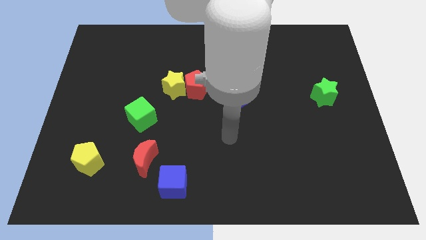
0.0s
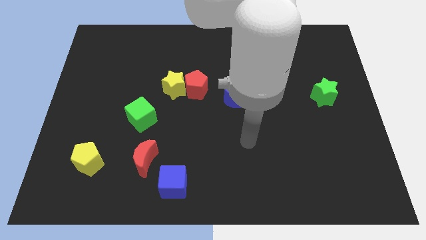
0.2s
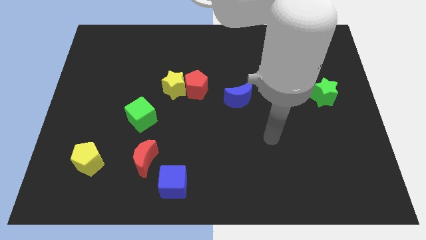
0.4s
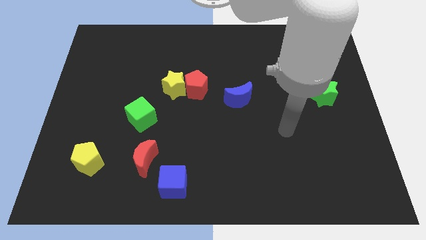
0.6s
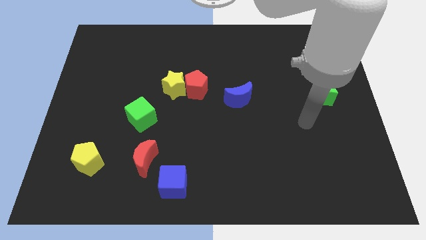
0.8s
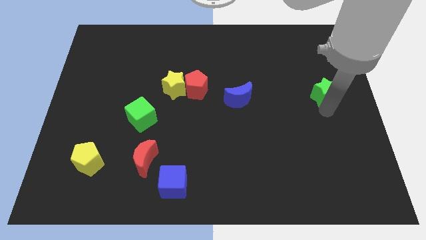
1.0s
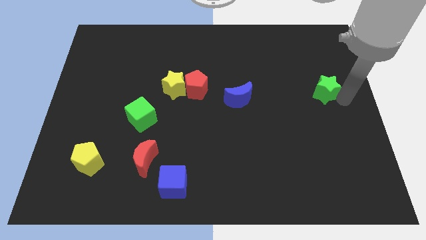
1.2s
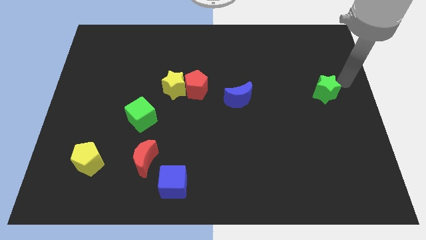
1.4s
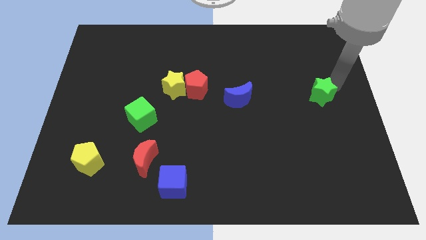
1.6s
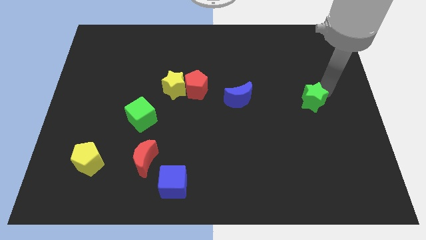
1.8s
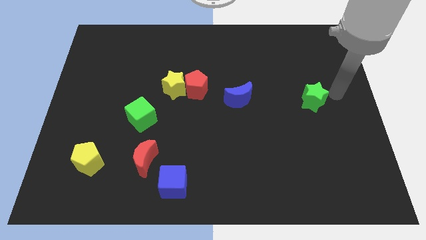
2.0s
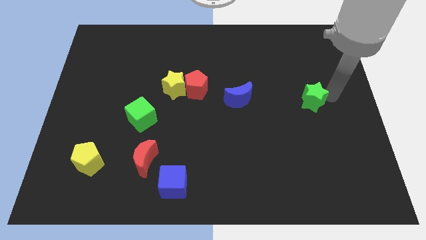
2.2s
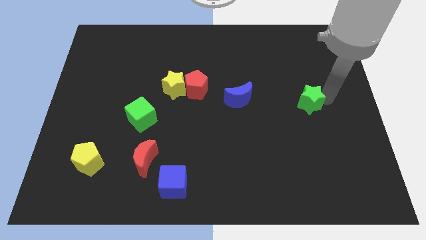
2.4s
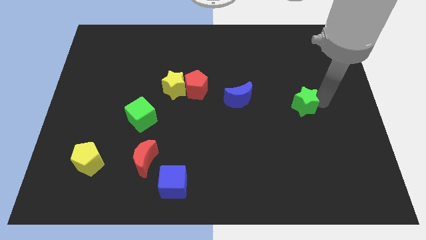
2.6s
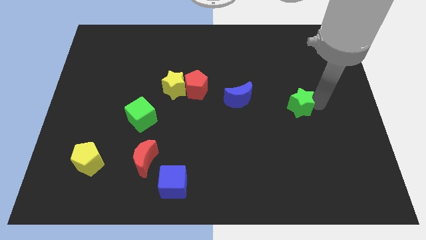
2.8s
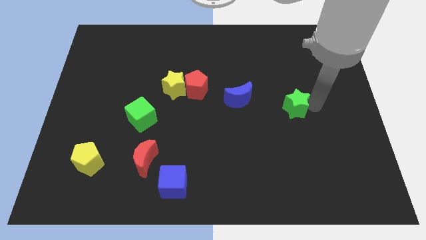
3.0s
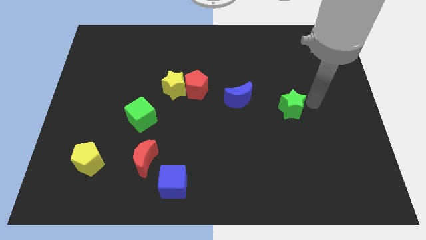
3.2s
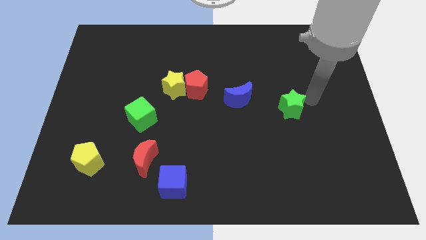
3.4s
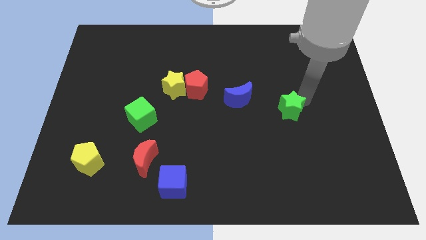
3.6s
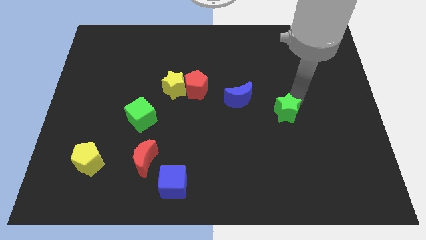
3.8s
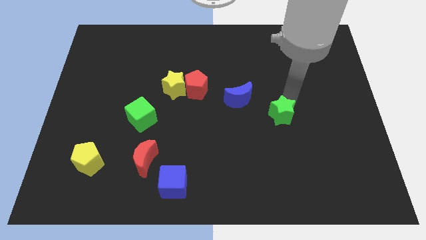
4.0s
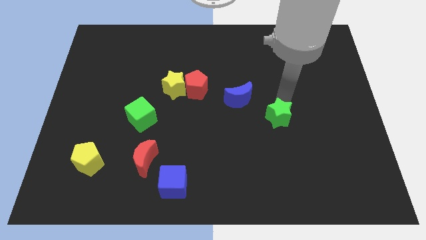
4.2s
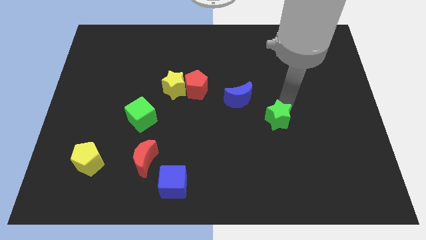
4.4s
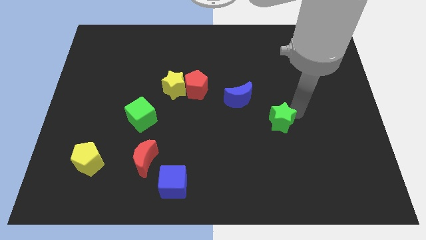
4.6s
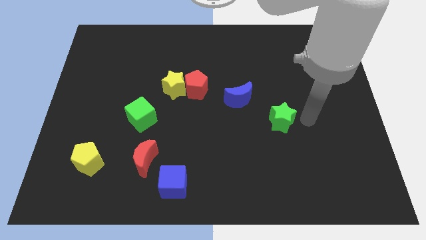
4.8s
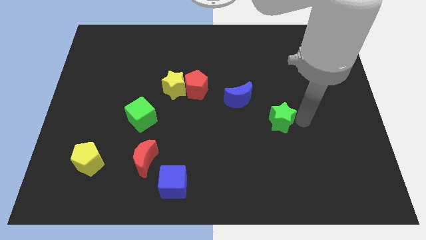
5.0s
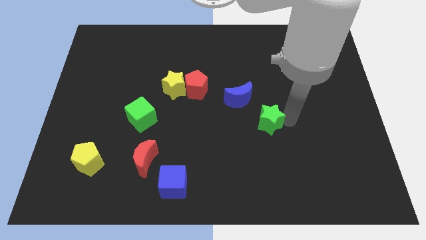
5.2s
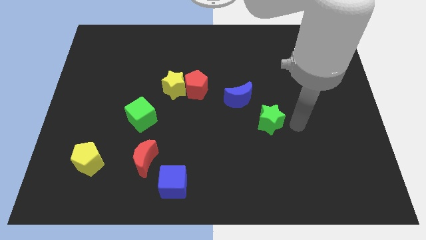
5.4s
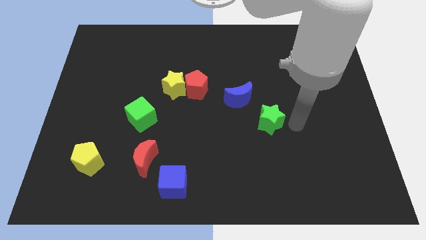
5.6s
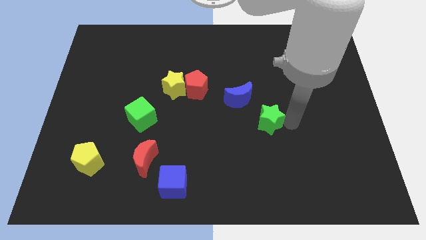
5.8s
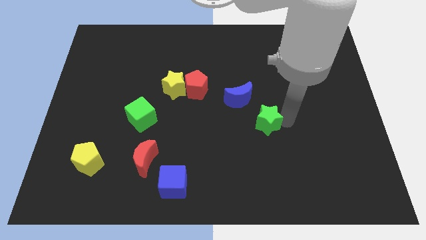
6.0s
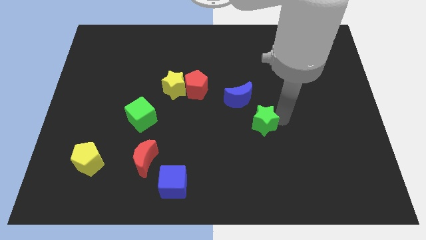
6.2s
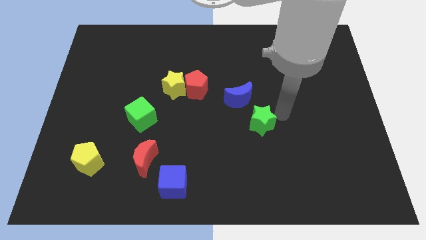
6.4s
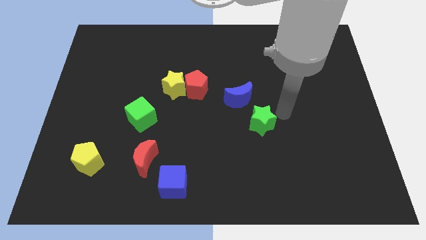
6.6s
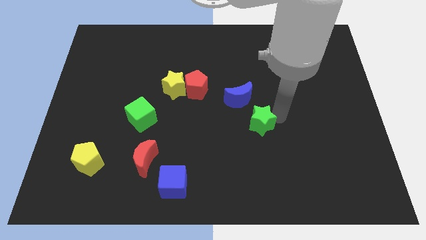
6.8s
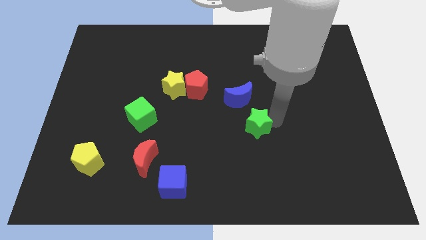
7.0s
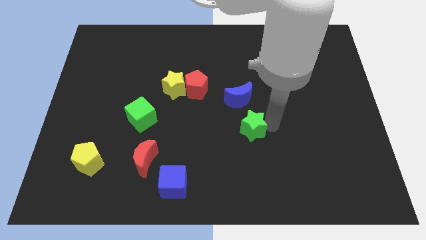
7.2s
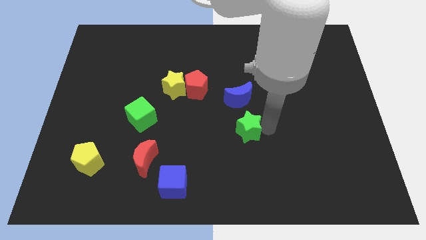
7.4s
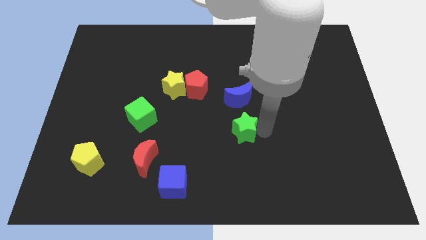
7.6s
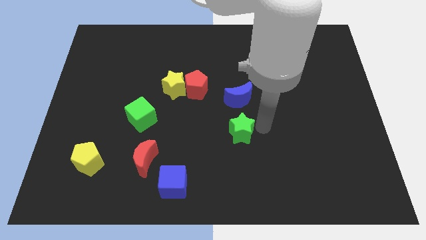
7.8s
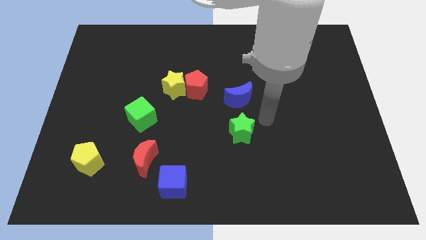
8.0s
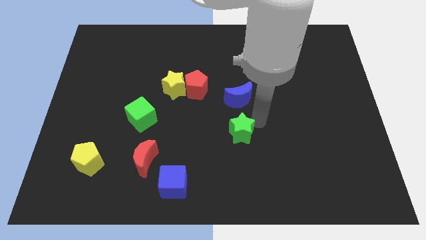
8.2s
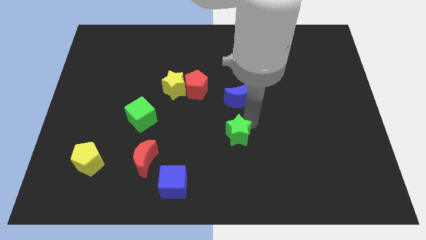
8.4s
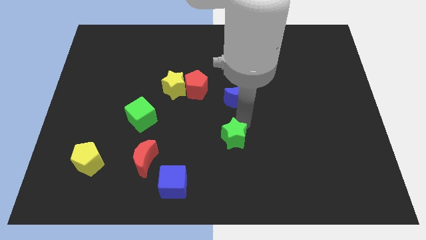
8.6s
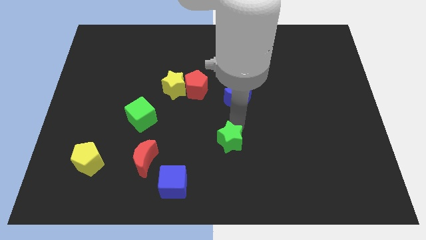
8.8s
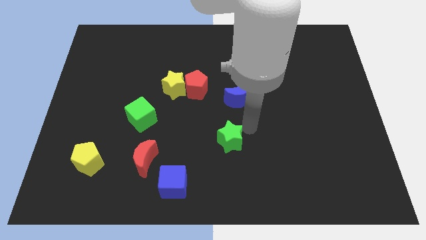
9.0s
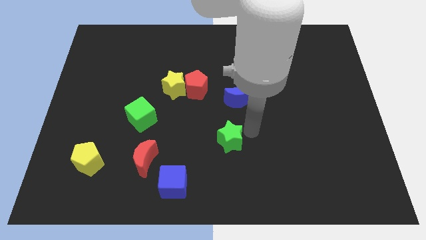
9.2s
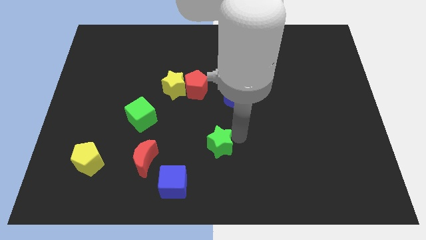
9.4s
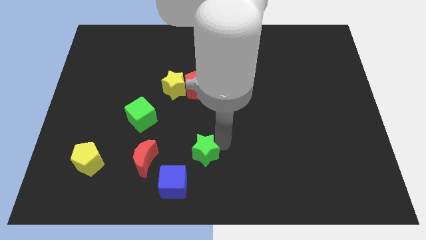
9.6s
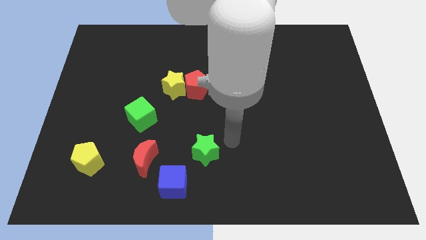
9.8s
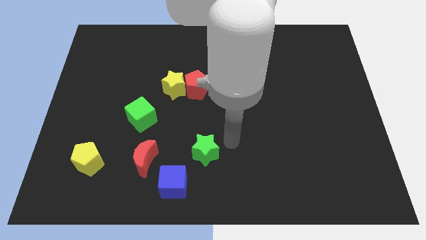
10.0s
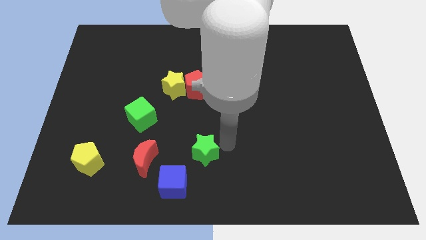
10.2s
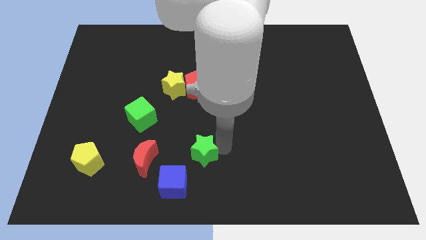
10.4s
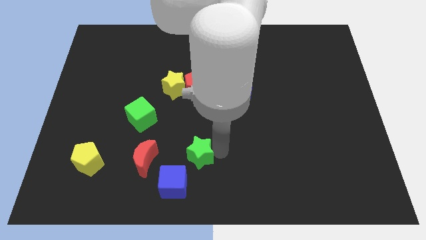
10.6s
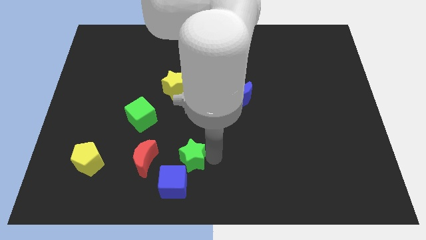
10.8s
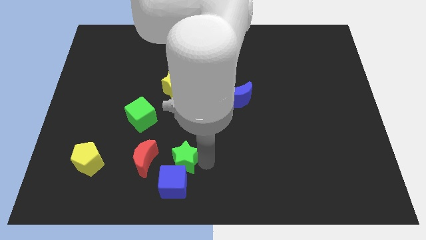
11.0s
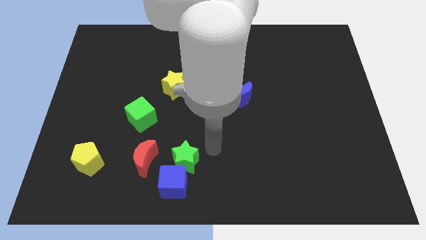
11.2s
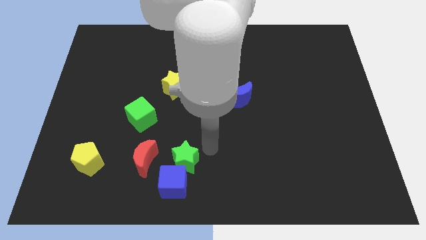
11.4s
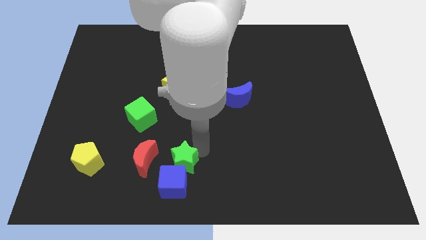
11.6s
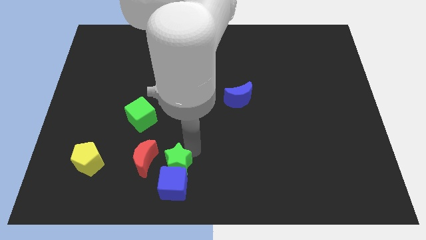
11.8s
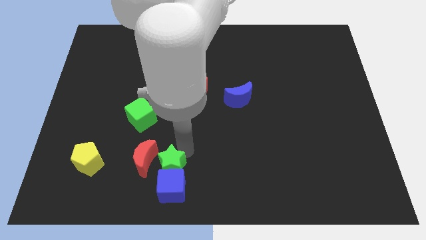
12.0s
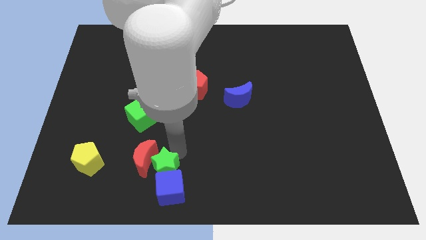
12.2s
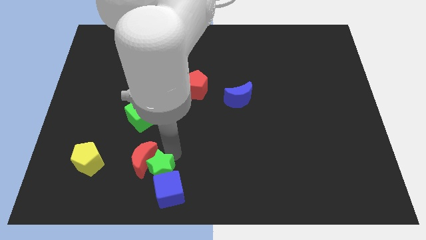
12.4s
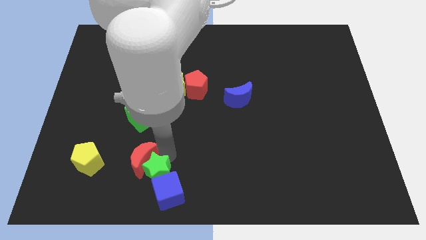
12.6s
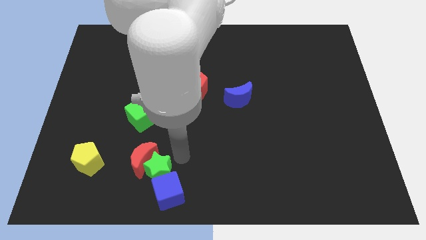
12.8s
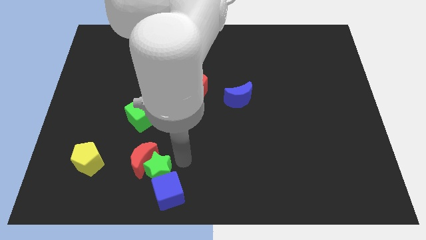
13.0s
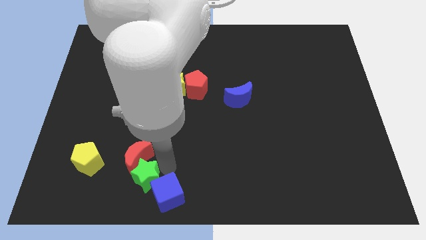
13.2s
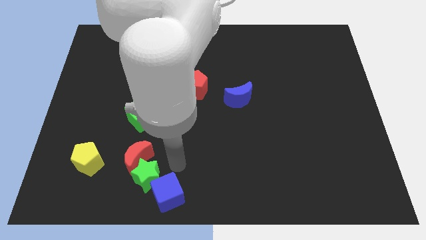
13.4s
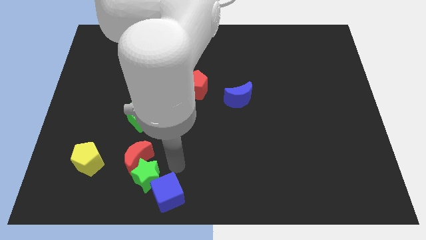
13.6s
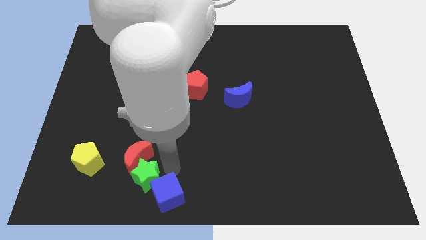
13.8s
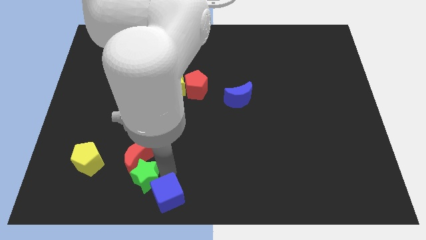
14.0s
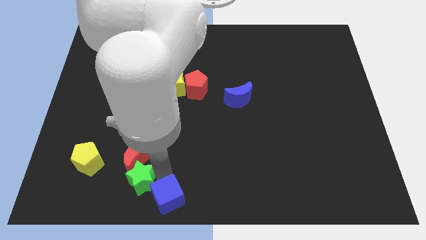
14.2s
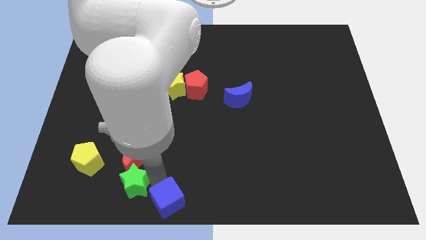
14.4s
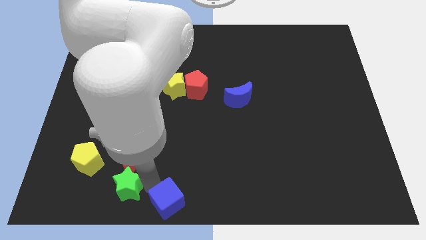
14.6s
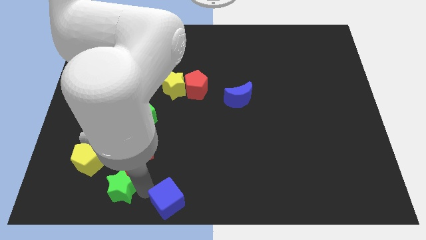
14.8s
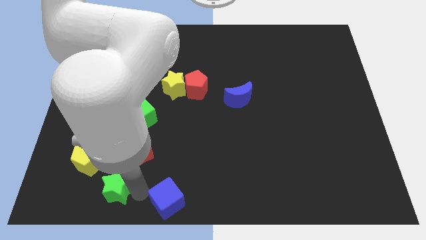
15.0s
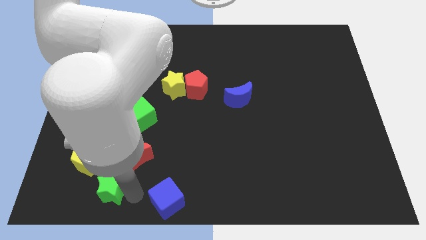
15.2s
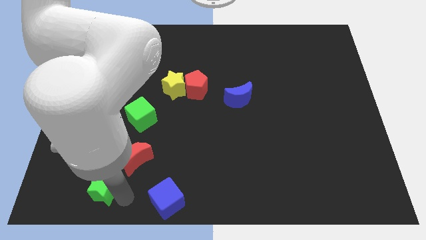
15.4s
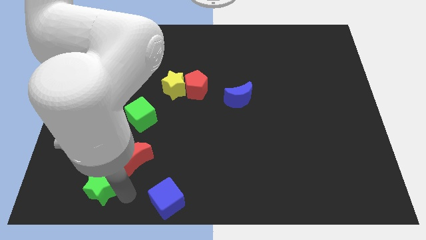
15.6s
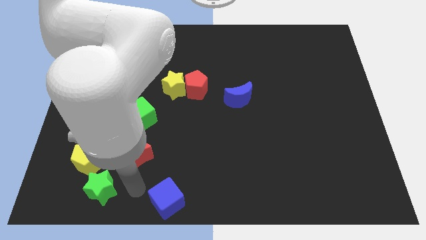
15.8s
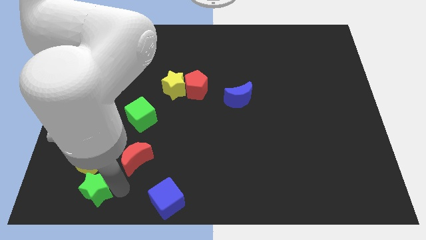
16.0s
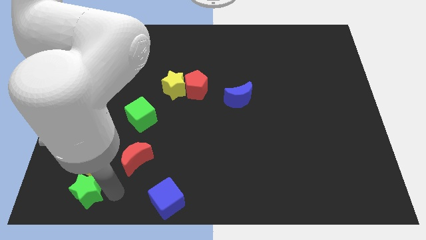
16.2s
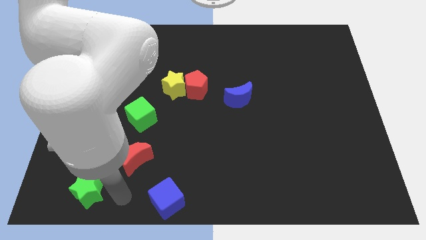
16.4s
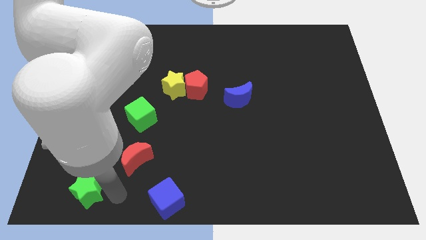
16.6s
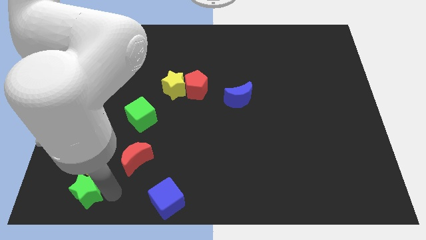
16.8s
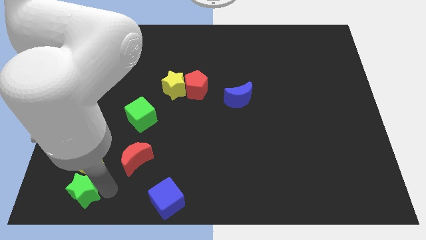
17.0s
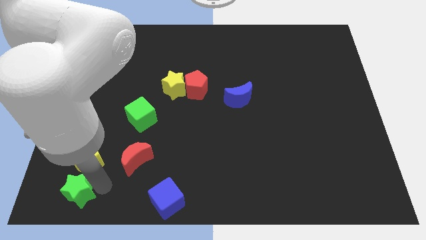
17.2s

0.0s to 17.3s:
put the green star to the bottom left
